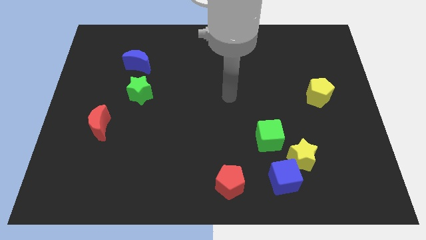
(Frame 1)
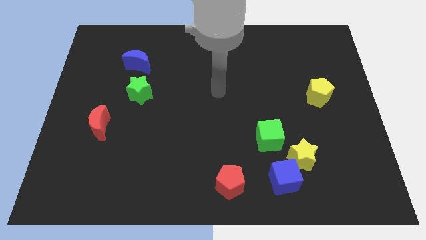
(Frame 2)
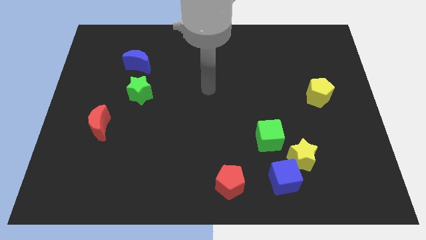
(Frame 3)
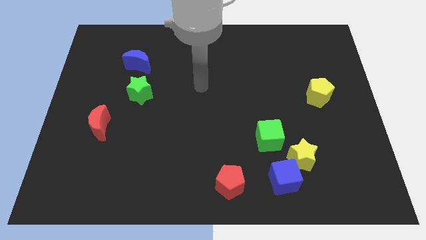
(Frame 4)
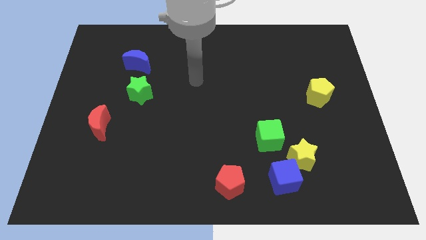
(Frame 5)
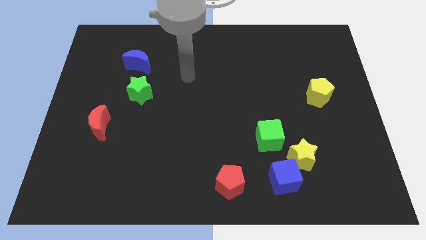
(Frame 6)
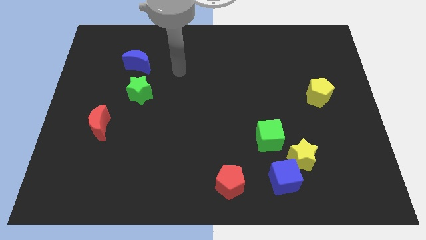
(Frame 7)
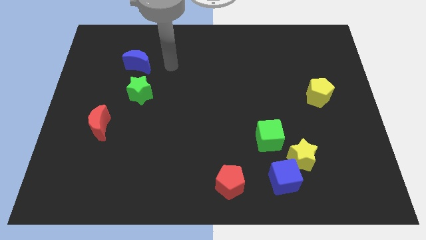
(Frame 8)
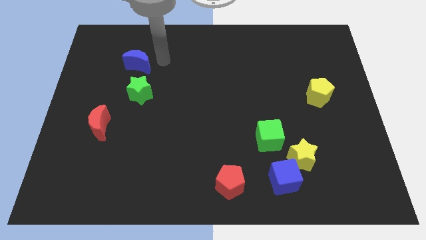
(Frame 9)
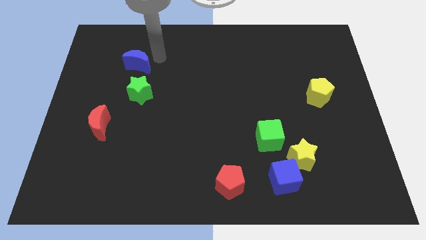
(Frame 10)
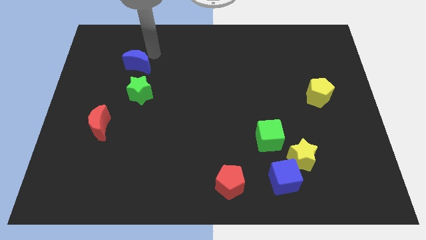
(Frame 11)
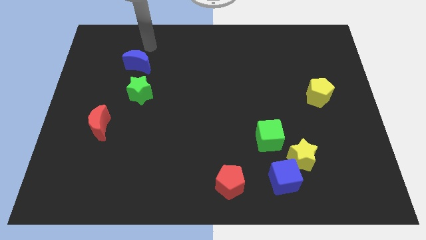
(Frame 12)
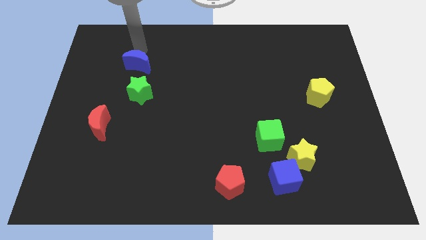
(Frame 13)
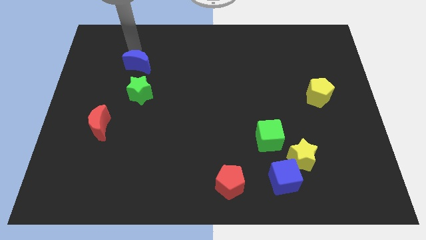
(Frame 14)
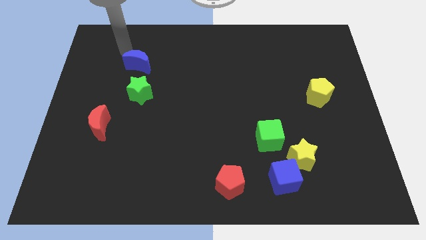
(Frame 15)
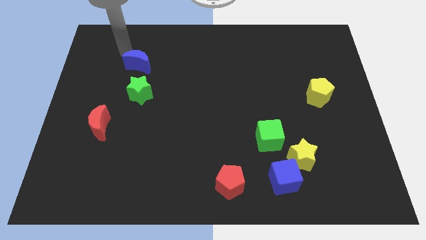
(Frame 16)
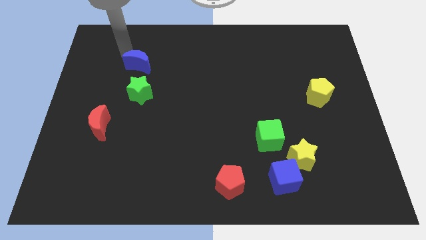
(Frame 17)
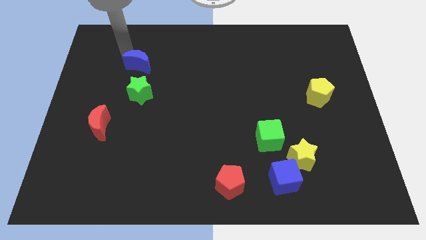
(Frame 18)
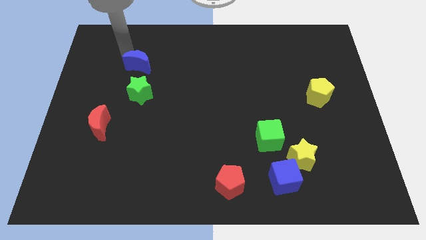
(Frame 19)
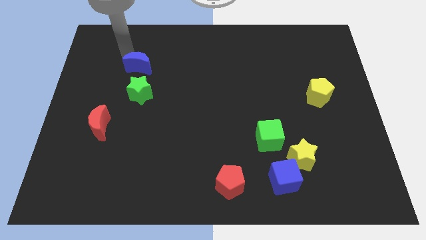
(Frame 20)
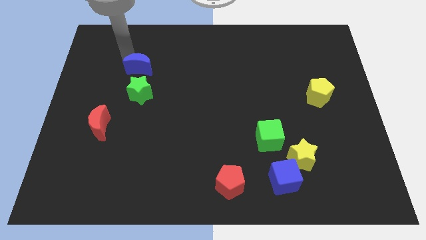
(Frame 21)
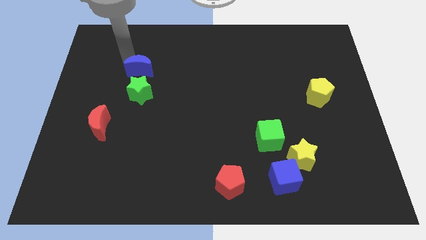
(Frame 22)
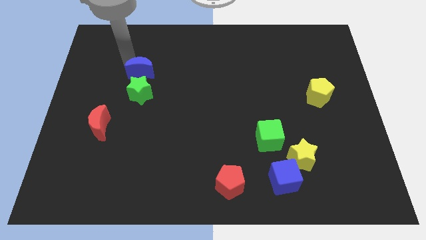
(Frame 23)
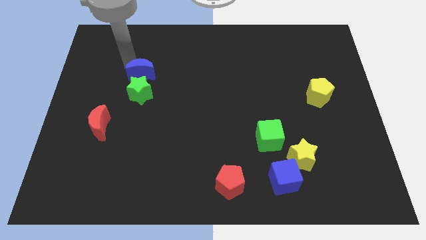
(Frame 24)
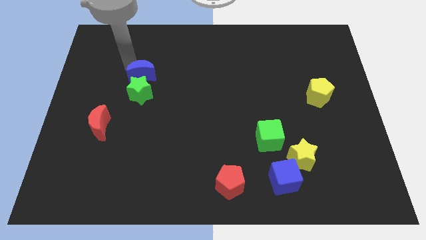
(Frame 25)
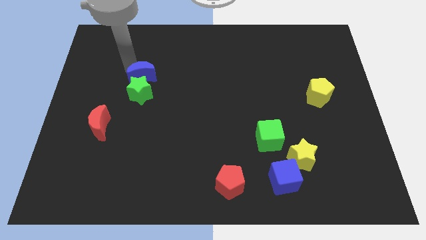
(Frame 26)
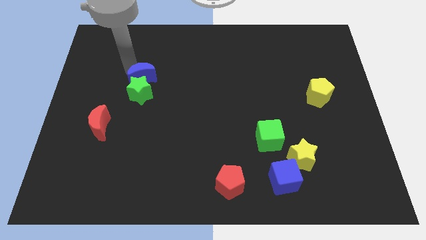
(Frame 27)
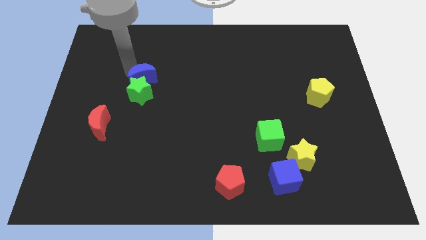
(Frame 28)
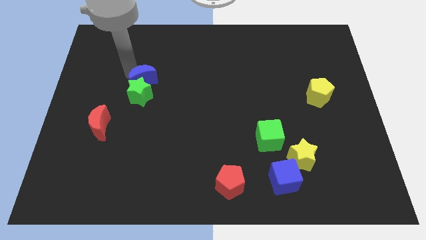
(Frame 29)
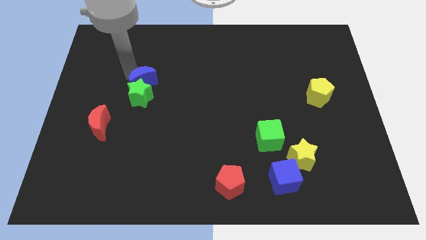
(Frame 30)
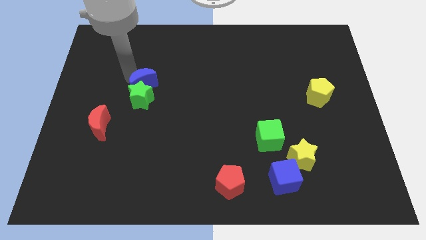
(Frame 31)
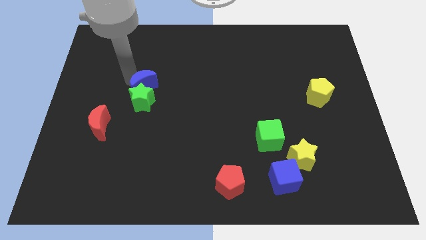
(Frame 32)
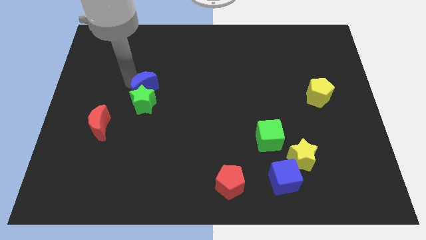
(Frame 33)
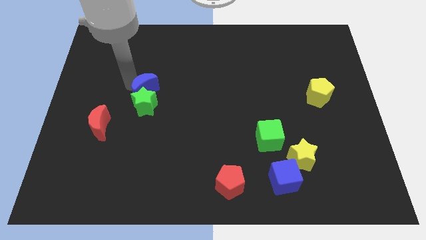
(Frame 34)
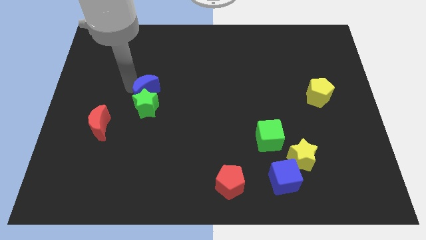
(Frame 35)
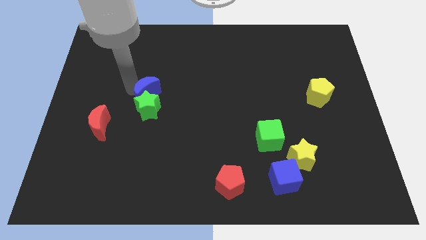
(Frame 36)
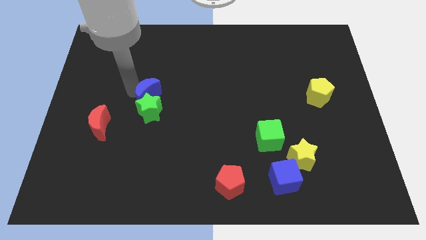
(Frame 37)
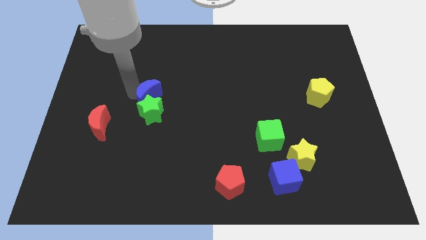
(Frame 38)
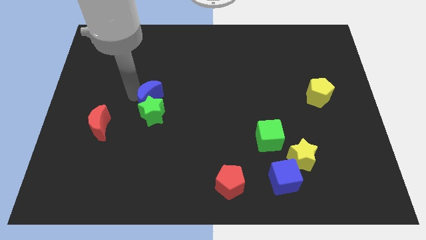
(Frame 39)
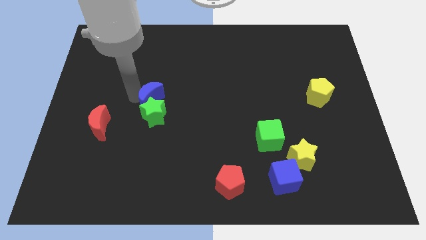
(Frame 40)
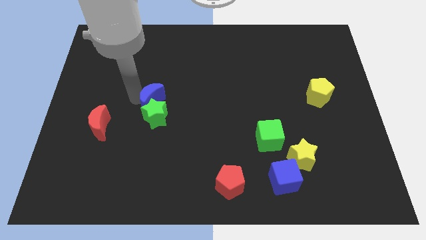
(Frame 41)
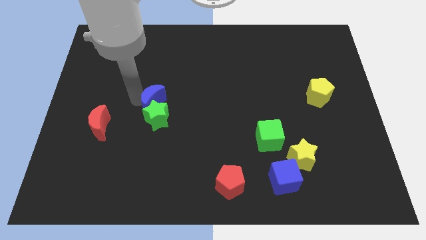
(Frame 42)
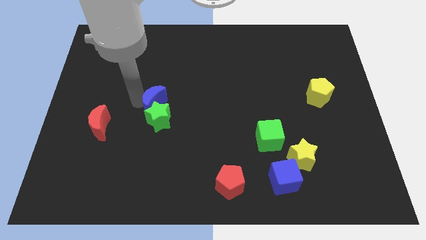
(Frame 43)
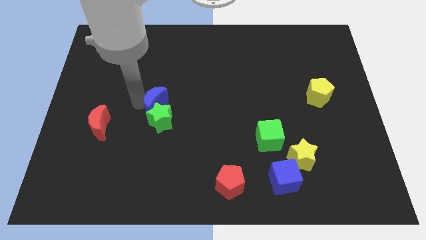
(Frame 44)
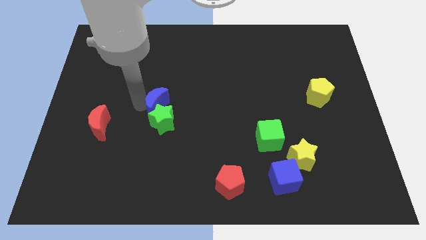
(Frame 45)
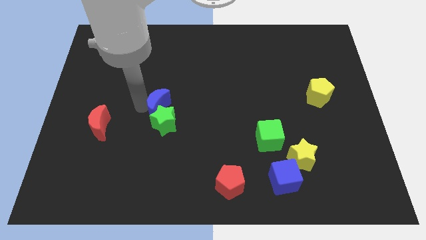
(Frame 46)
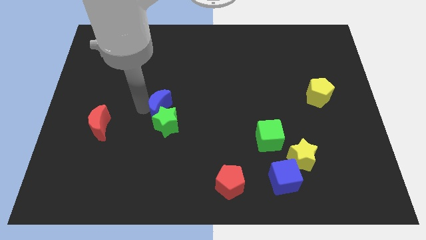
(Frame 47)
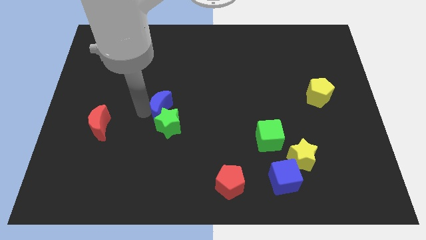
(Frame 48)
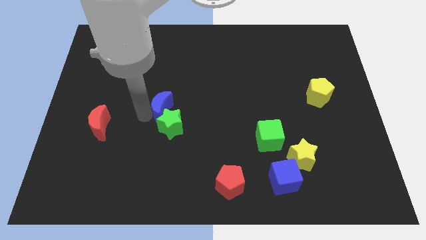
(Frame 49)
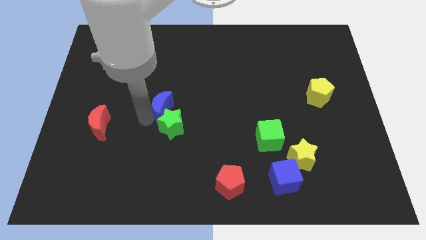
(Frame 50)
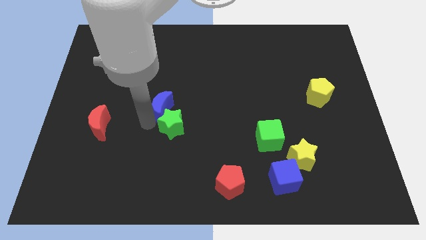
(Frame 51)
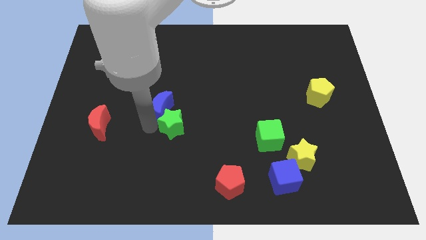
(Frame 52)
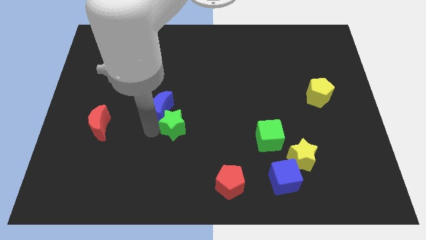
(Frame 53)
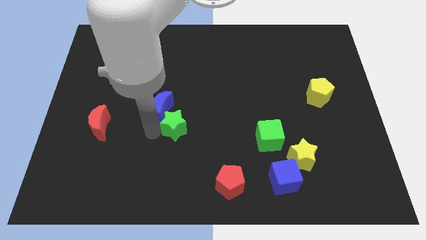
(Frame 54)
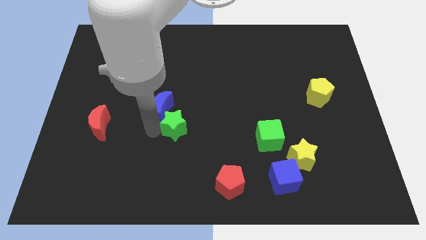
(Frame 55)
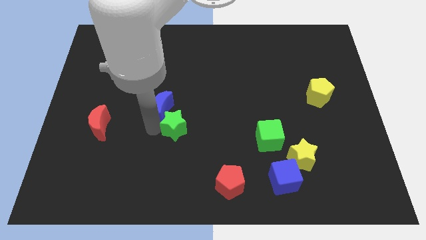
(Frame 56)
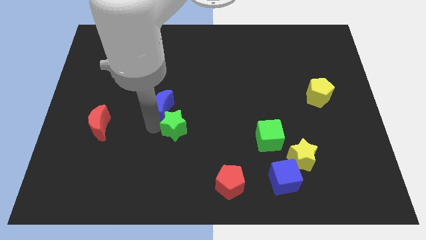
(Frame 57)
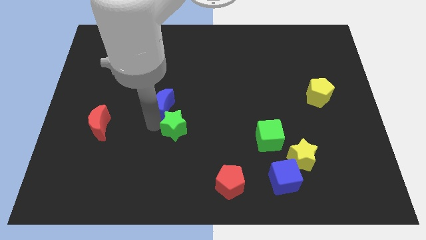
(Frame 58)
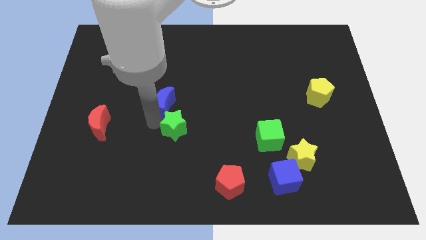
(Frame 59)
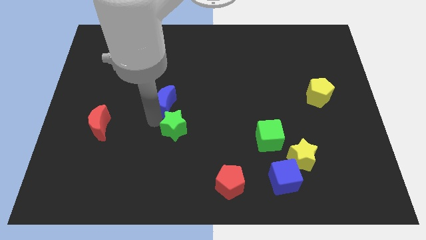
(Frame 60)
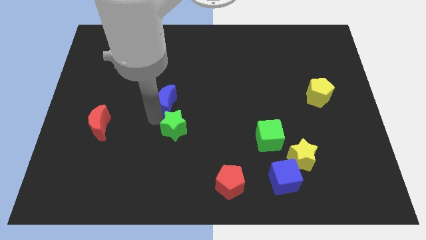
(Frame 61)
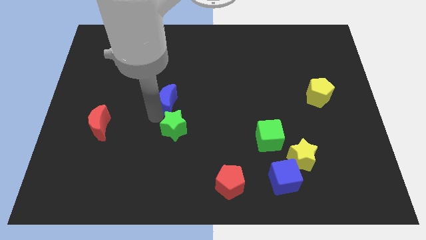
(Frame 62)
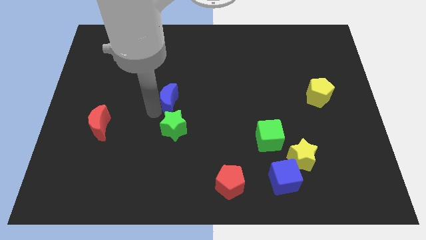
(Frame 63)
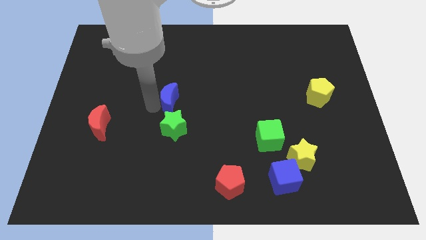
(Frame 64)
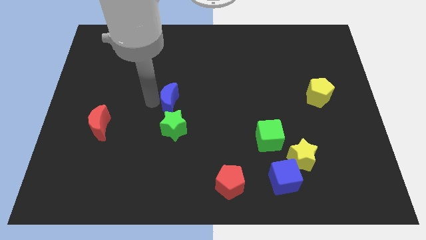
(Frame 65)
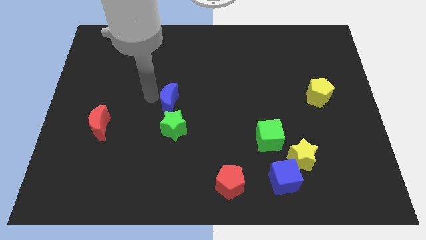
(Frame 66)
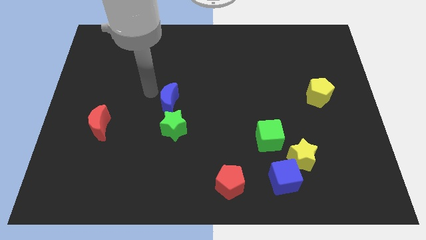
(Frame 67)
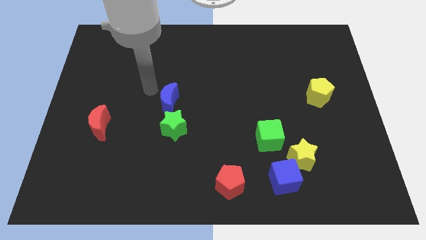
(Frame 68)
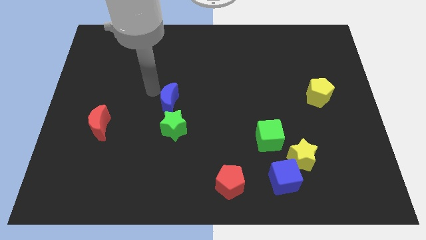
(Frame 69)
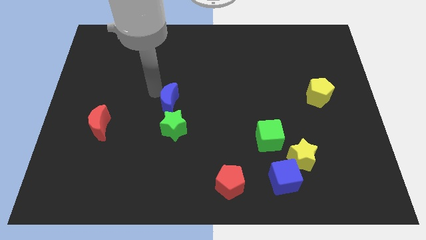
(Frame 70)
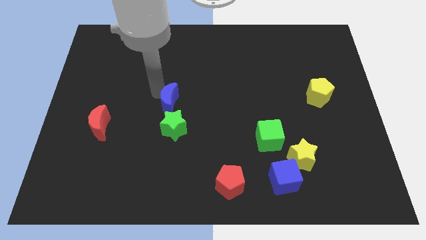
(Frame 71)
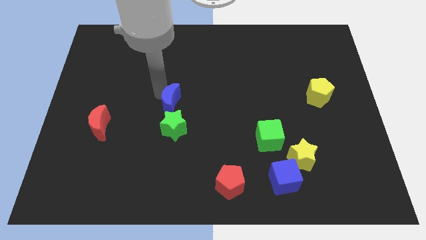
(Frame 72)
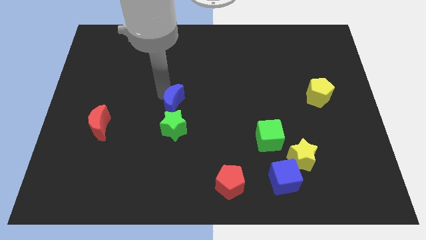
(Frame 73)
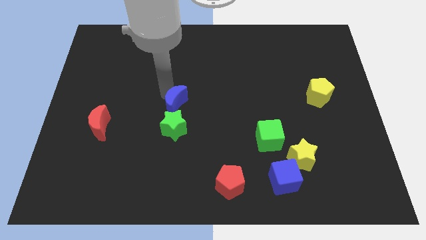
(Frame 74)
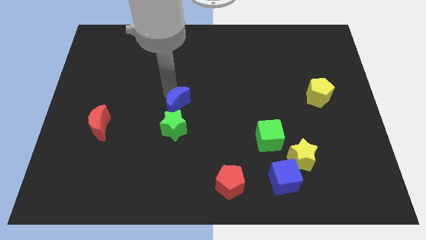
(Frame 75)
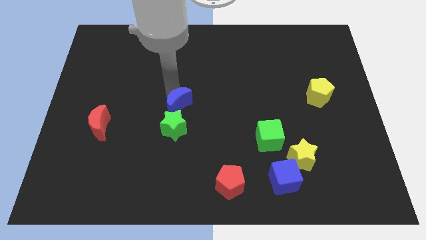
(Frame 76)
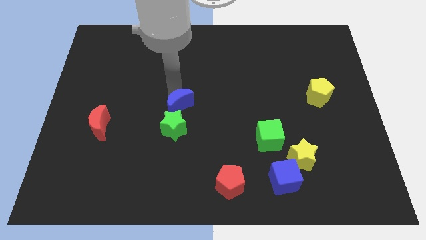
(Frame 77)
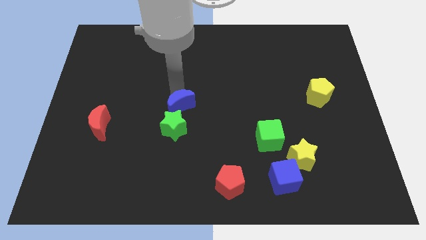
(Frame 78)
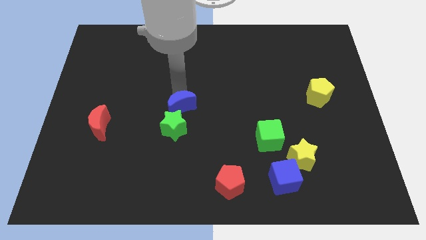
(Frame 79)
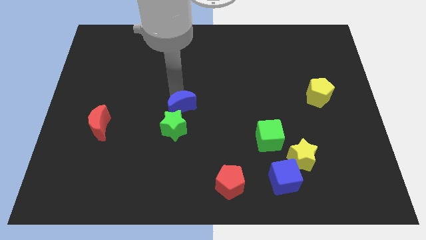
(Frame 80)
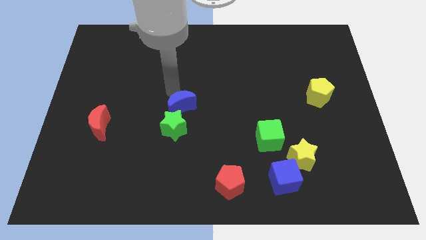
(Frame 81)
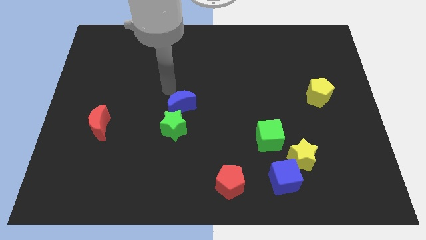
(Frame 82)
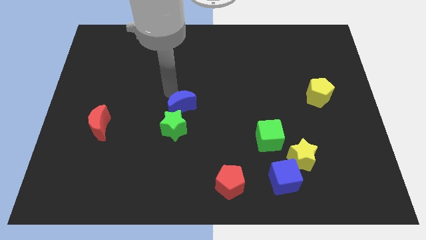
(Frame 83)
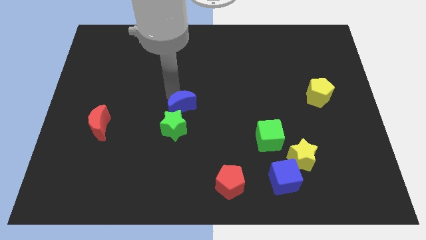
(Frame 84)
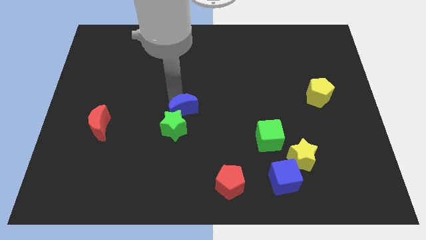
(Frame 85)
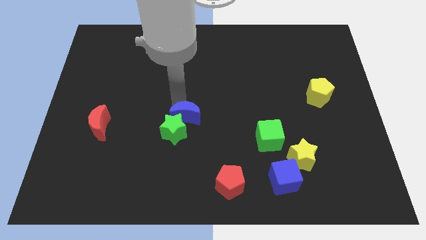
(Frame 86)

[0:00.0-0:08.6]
move the blue moon diagonally downwards and right
